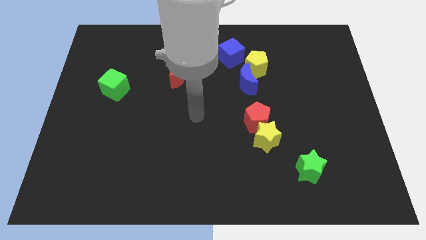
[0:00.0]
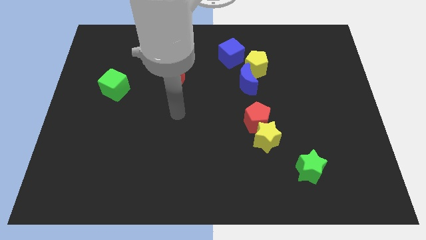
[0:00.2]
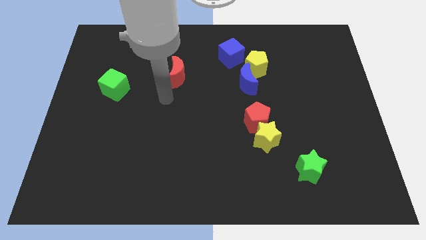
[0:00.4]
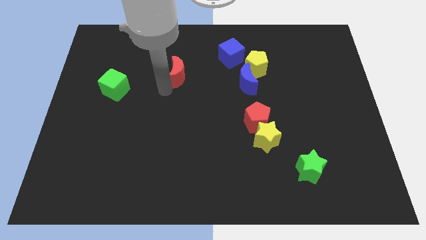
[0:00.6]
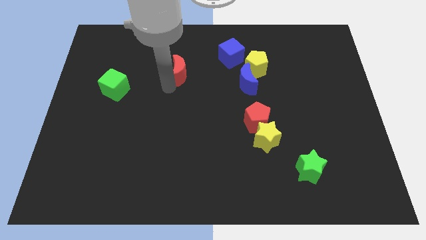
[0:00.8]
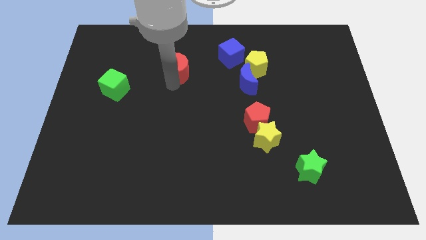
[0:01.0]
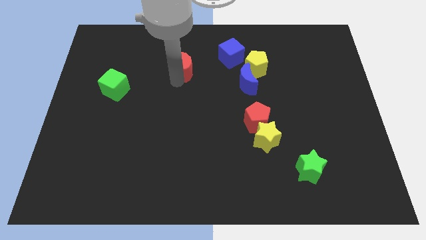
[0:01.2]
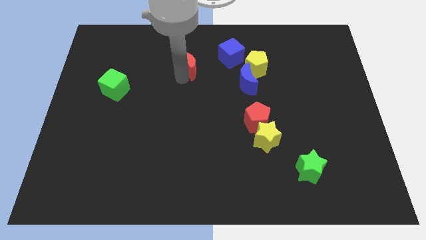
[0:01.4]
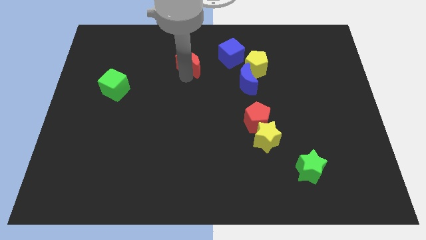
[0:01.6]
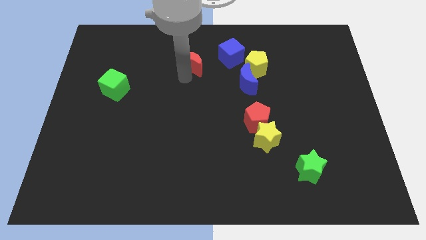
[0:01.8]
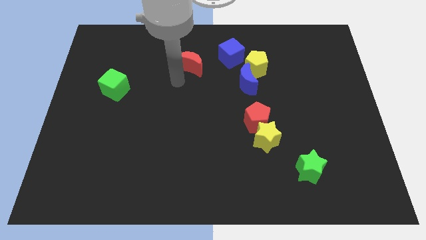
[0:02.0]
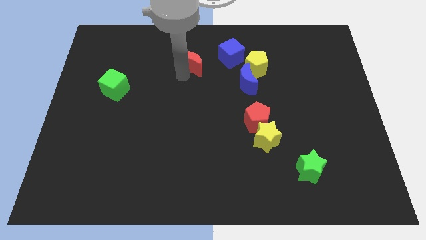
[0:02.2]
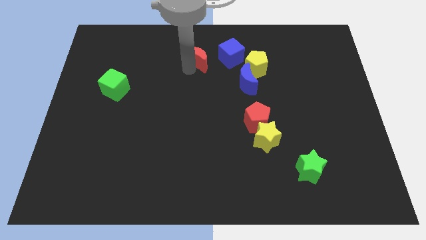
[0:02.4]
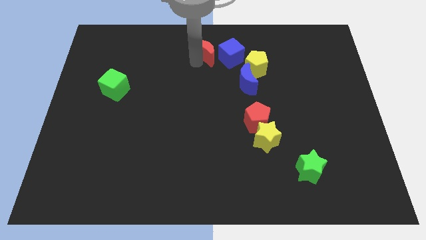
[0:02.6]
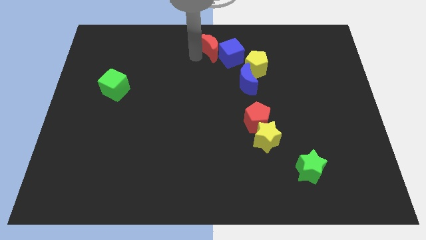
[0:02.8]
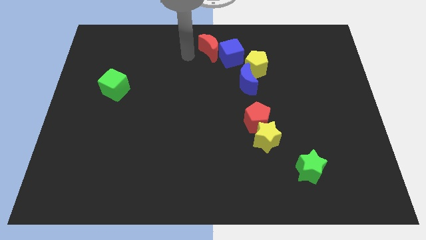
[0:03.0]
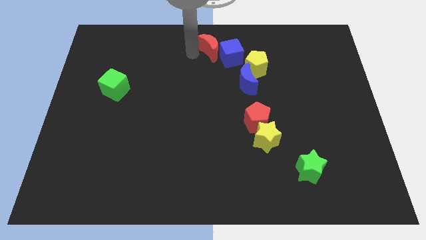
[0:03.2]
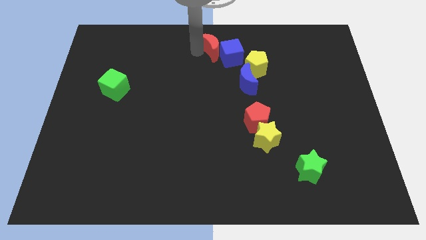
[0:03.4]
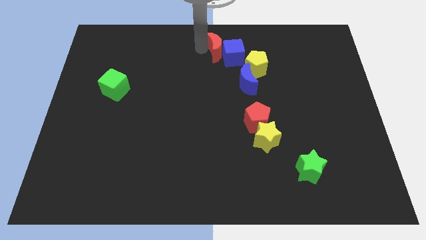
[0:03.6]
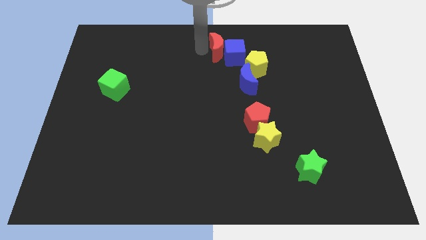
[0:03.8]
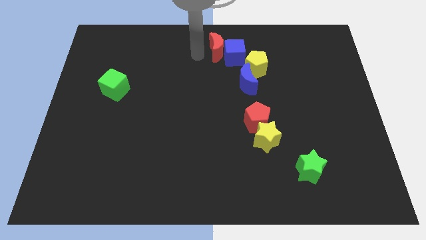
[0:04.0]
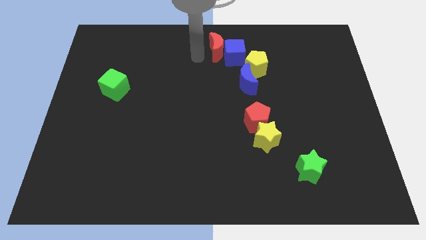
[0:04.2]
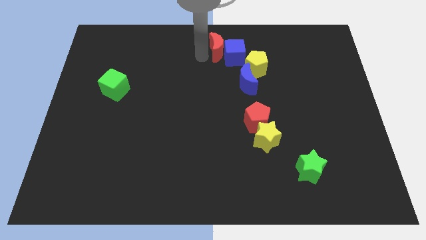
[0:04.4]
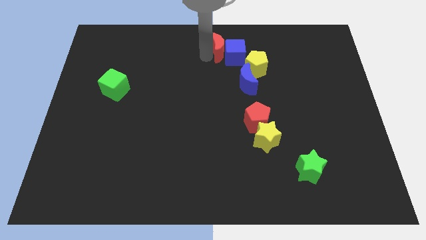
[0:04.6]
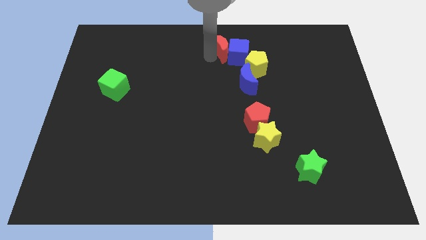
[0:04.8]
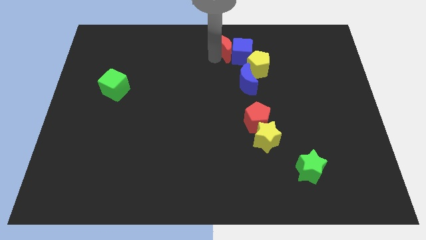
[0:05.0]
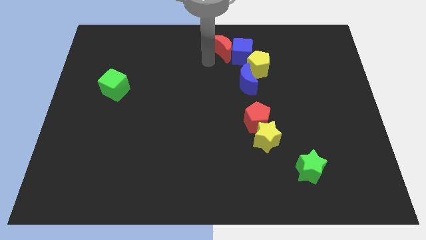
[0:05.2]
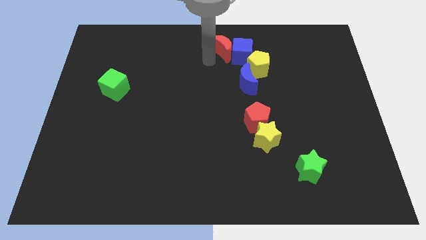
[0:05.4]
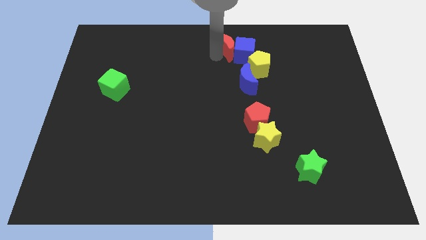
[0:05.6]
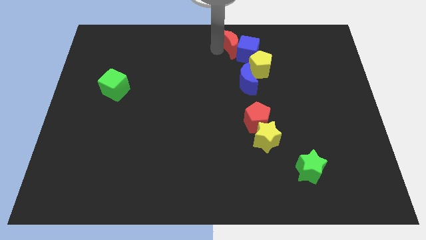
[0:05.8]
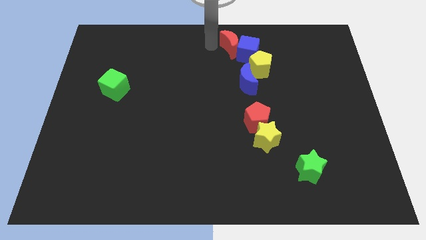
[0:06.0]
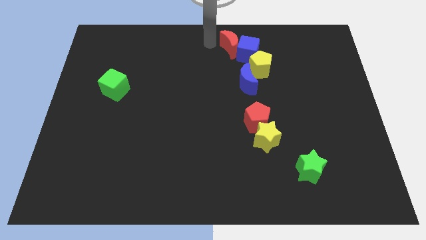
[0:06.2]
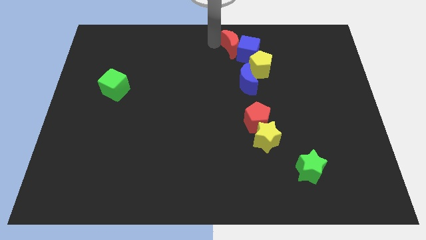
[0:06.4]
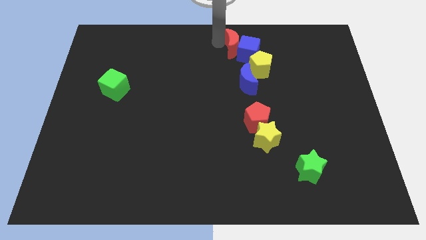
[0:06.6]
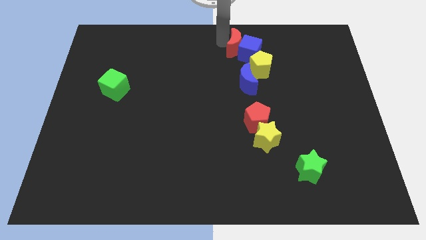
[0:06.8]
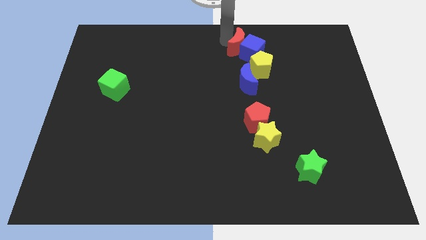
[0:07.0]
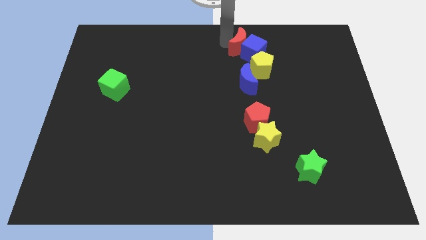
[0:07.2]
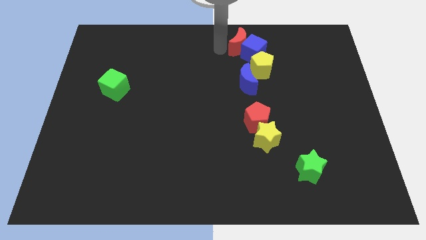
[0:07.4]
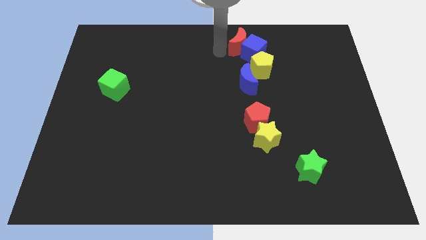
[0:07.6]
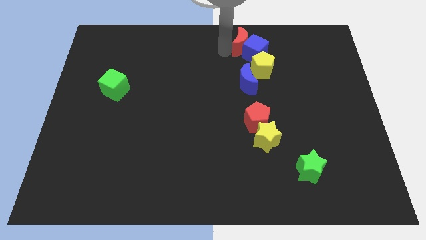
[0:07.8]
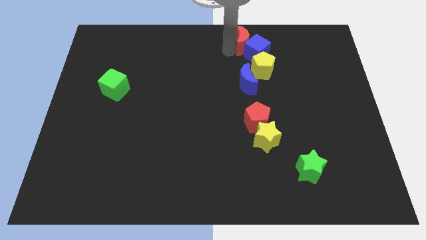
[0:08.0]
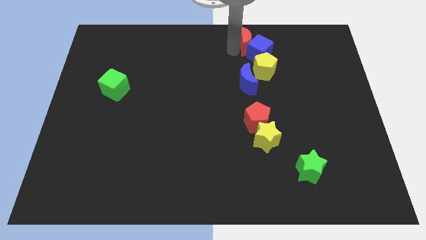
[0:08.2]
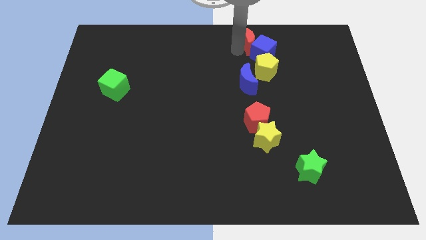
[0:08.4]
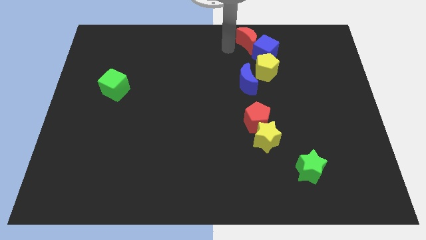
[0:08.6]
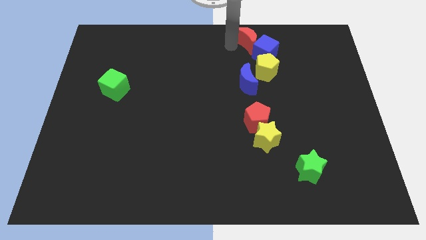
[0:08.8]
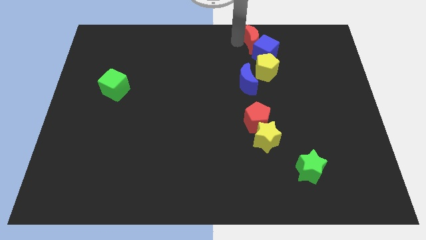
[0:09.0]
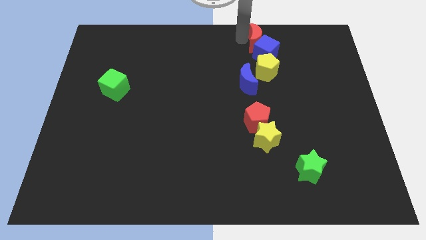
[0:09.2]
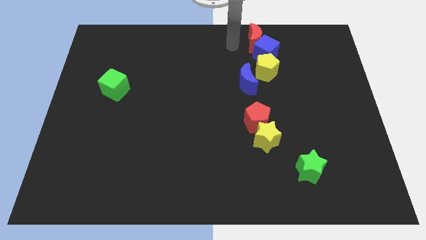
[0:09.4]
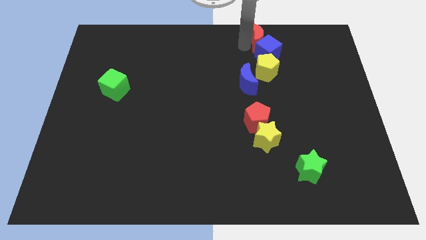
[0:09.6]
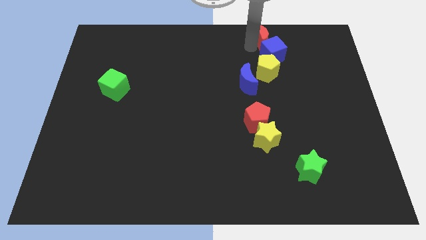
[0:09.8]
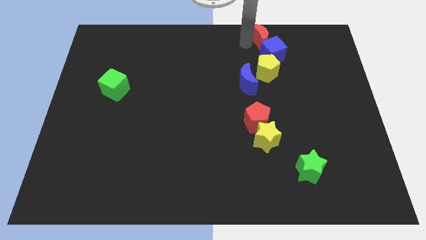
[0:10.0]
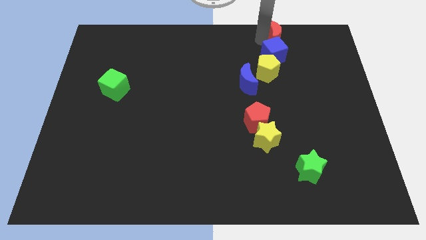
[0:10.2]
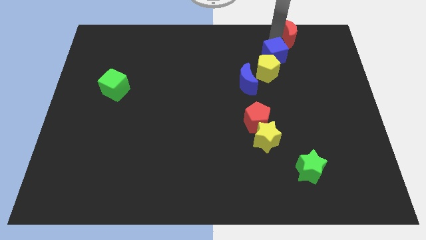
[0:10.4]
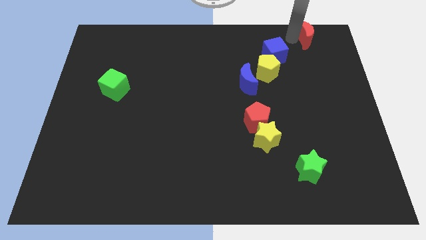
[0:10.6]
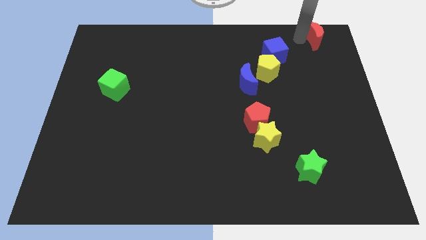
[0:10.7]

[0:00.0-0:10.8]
move the red moon to the top right corner
